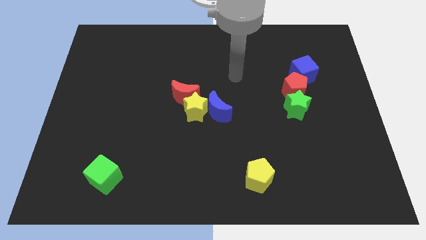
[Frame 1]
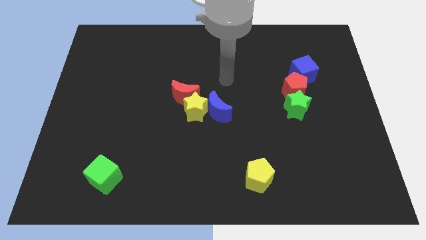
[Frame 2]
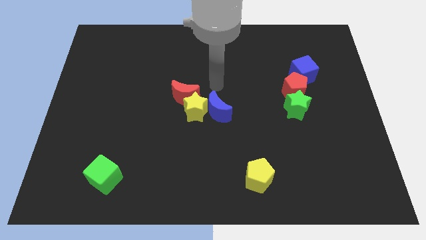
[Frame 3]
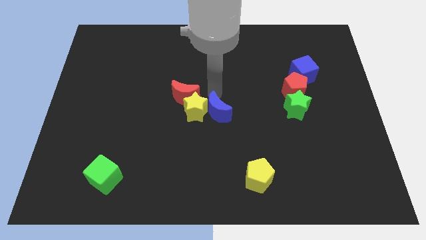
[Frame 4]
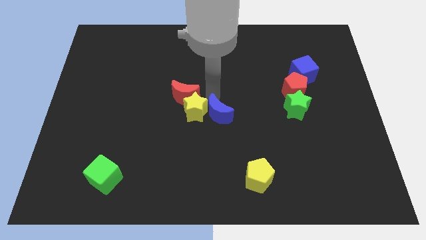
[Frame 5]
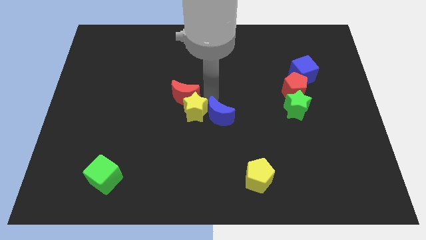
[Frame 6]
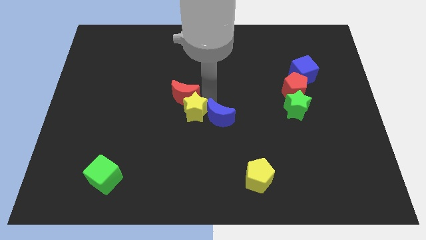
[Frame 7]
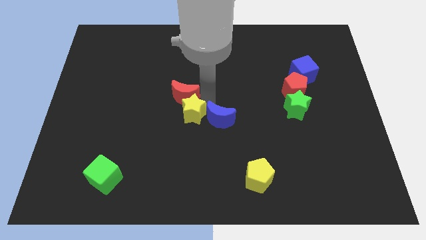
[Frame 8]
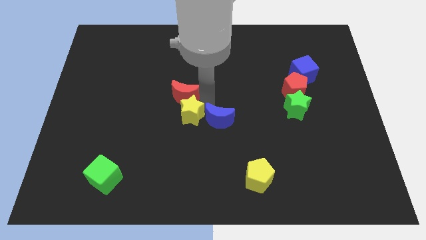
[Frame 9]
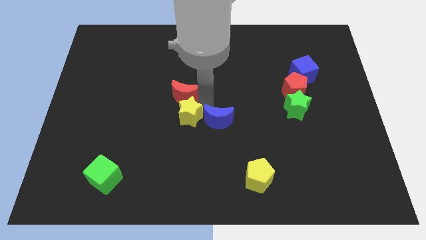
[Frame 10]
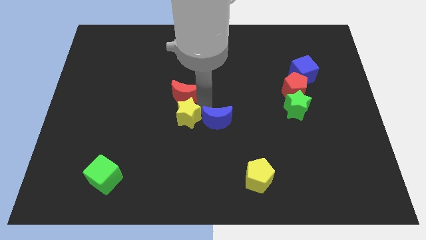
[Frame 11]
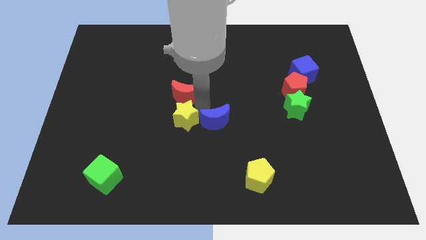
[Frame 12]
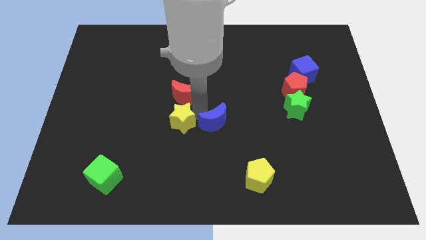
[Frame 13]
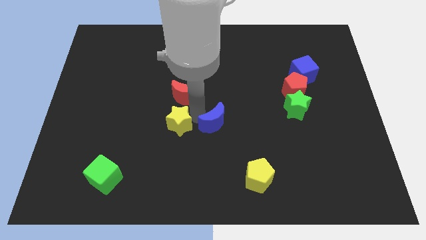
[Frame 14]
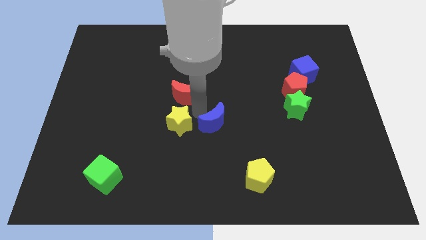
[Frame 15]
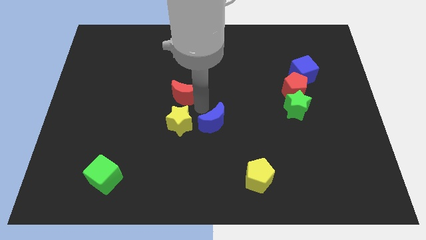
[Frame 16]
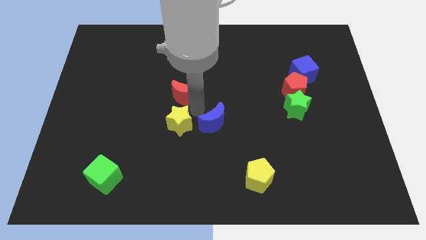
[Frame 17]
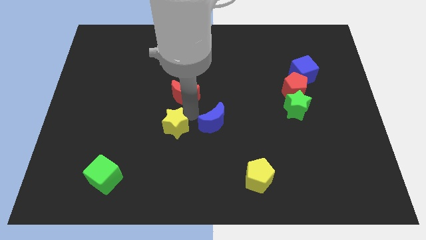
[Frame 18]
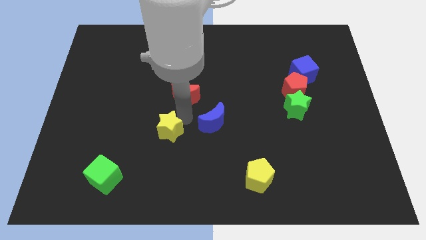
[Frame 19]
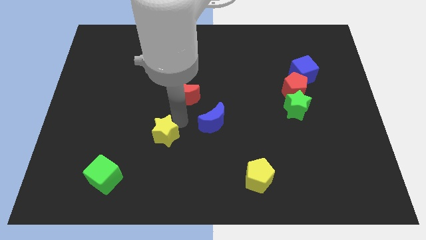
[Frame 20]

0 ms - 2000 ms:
pull the yellow star apart from the red moon and blue moon

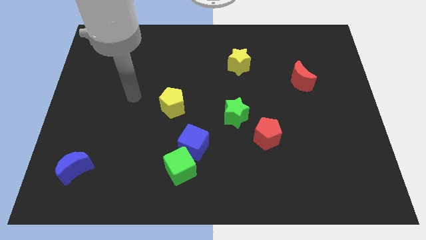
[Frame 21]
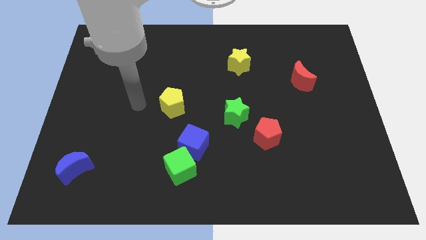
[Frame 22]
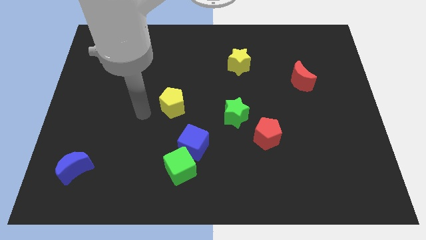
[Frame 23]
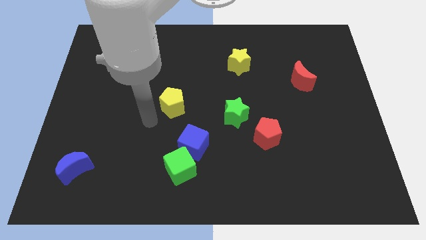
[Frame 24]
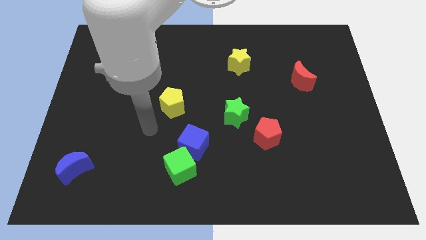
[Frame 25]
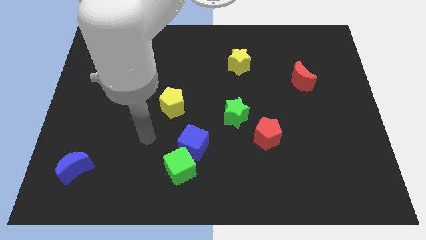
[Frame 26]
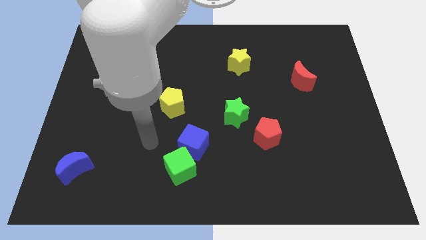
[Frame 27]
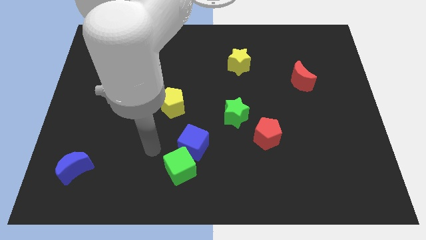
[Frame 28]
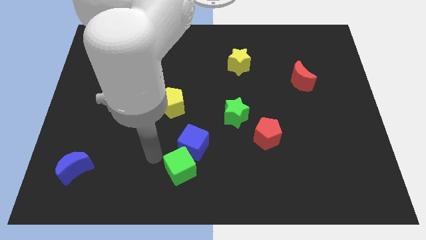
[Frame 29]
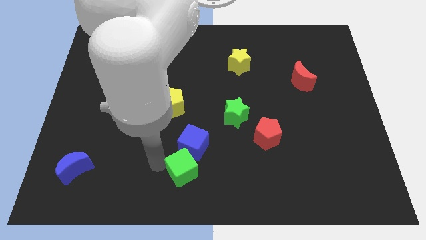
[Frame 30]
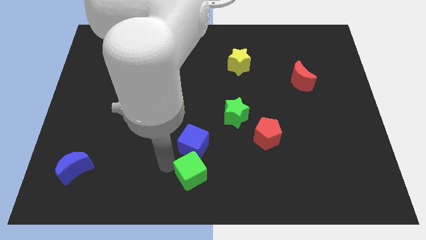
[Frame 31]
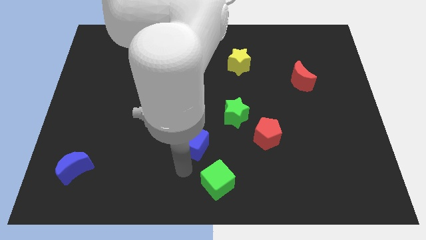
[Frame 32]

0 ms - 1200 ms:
pull the blue cube apart from the green cube

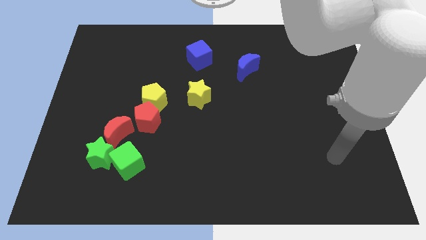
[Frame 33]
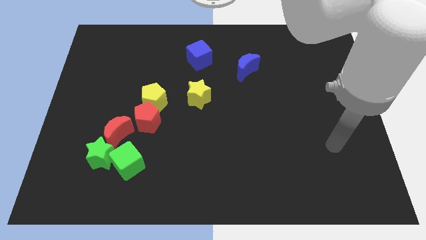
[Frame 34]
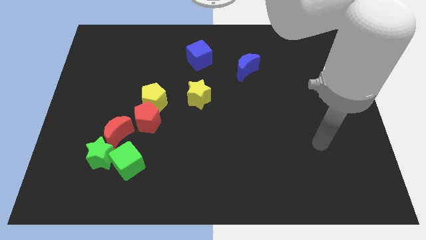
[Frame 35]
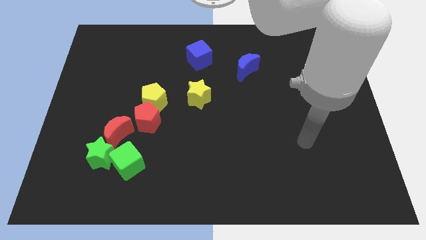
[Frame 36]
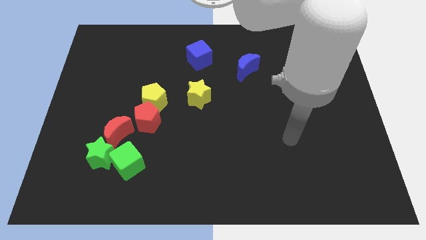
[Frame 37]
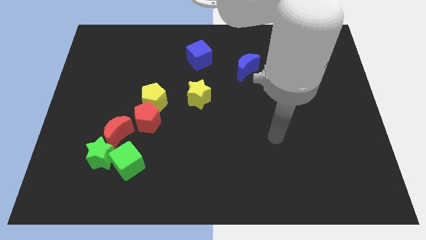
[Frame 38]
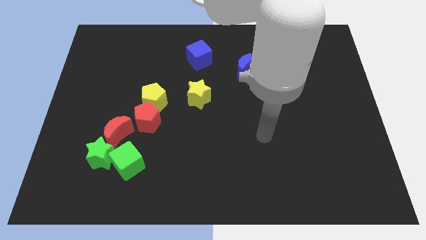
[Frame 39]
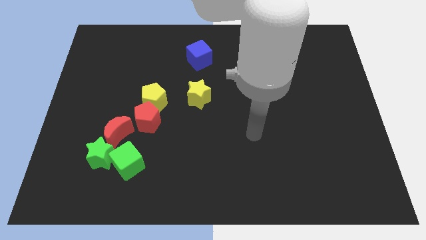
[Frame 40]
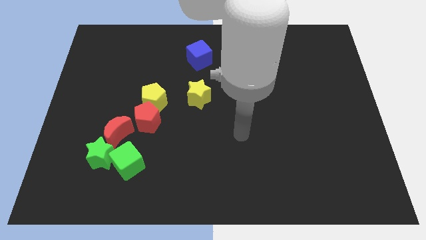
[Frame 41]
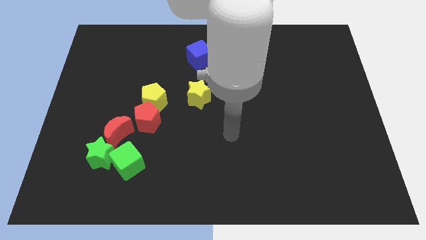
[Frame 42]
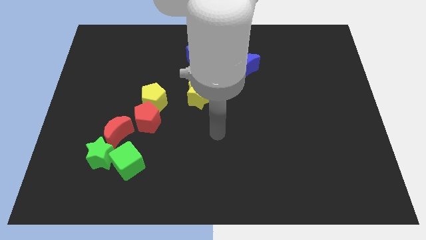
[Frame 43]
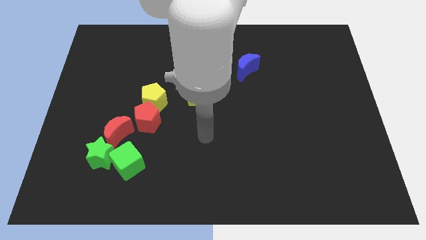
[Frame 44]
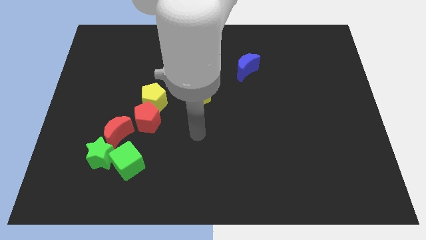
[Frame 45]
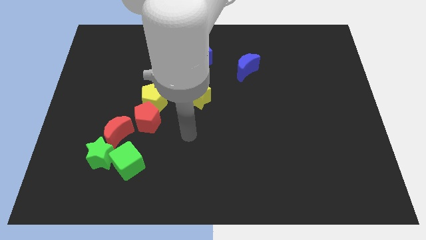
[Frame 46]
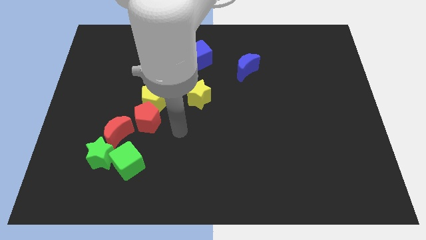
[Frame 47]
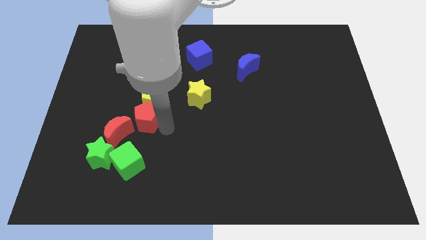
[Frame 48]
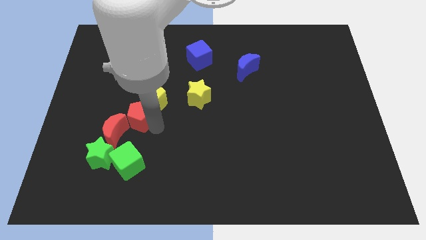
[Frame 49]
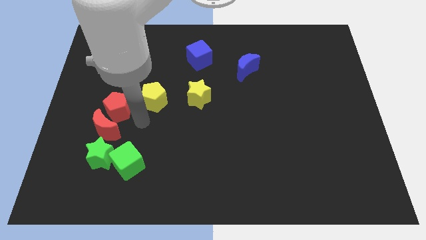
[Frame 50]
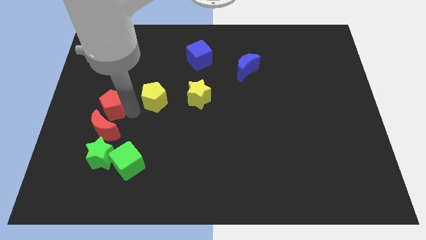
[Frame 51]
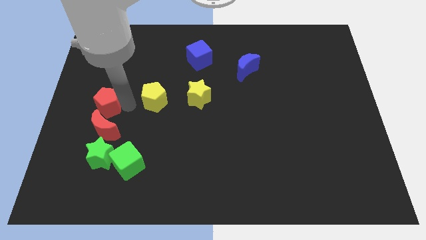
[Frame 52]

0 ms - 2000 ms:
pull the yellow pentagon apart from the red pentagon

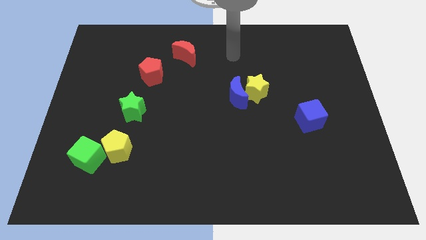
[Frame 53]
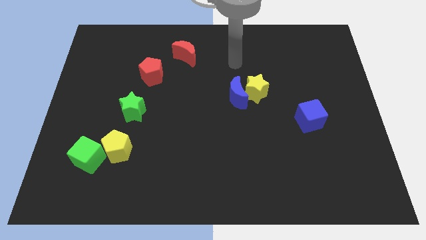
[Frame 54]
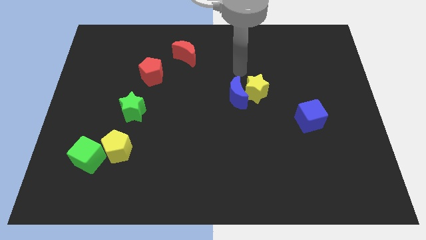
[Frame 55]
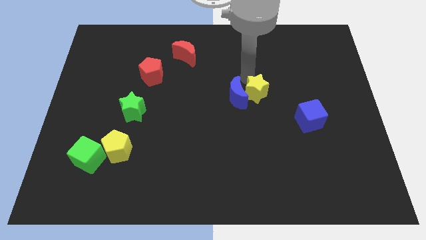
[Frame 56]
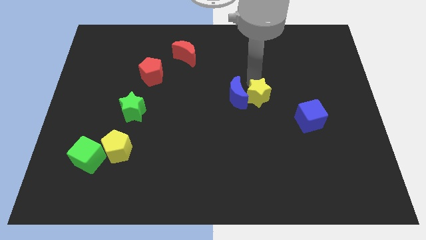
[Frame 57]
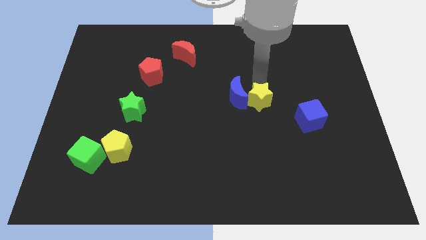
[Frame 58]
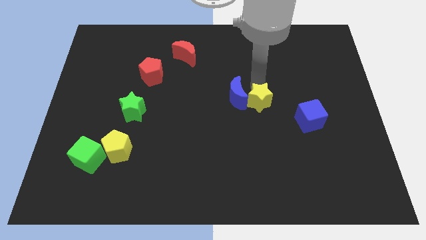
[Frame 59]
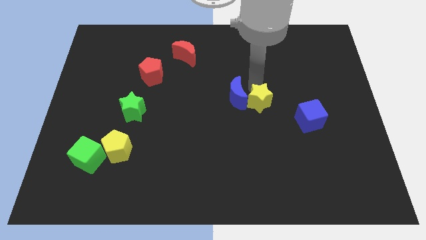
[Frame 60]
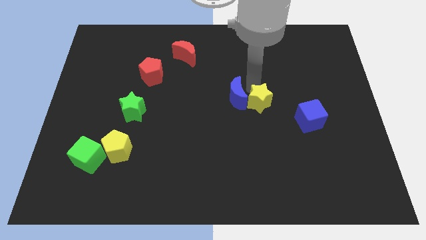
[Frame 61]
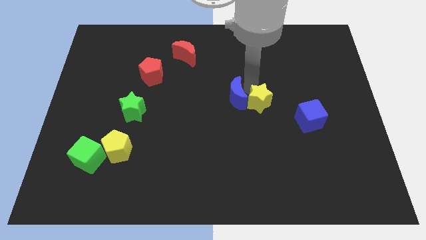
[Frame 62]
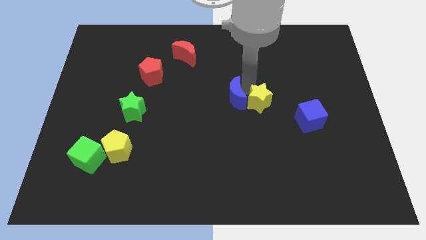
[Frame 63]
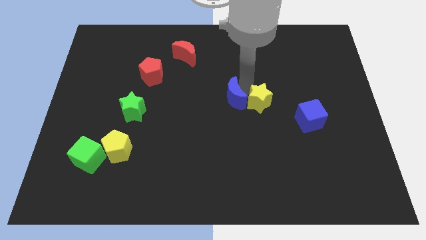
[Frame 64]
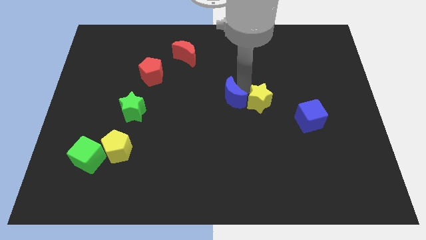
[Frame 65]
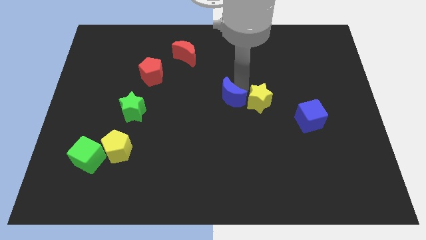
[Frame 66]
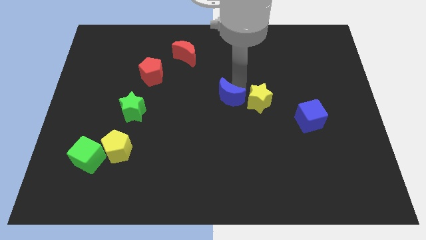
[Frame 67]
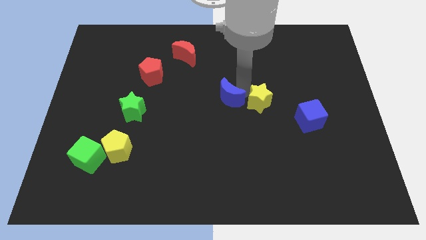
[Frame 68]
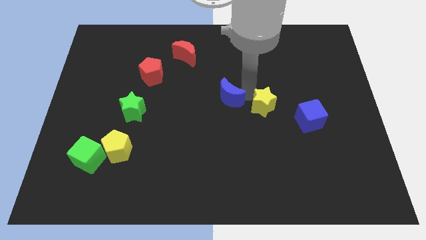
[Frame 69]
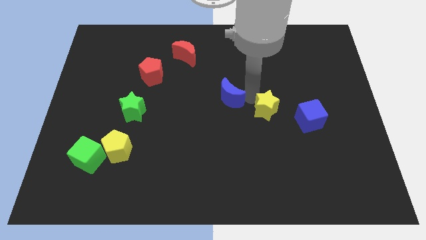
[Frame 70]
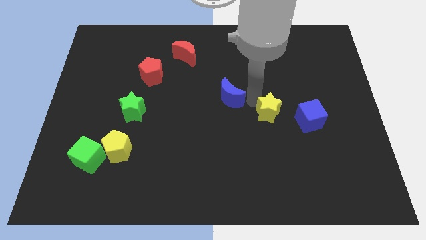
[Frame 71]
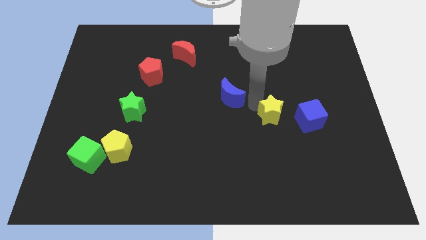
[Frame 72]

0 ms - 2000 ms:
pull the blue moon apart from the yellow star

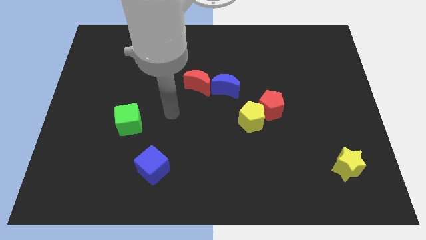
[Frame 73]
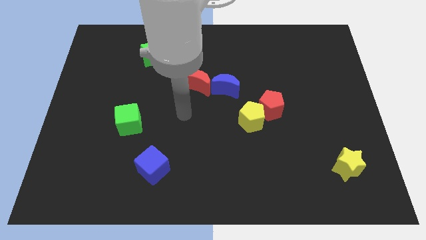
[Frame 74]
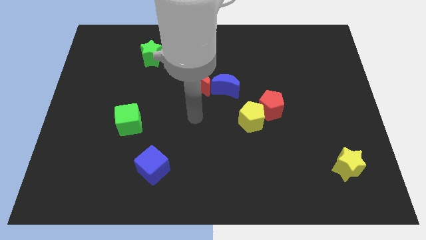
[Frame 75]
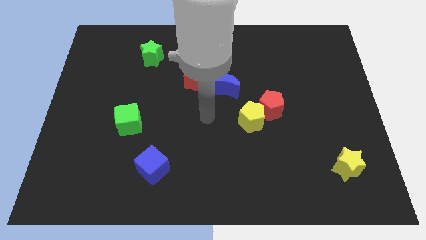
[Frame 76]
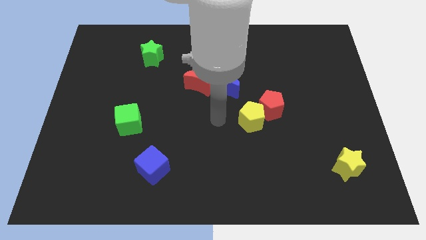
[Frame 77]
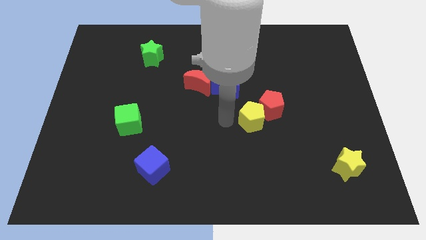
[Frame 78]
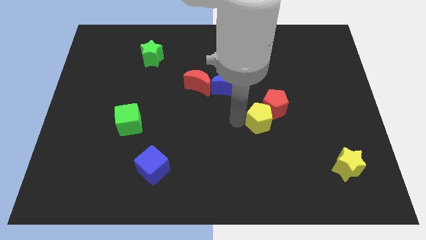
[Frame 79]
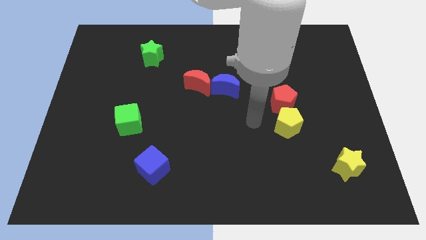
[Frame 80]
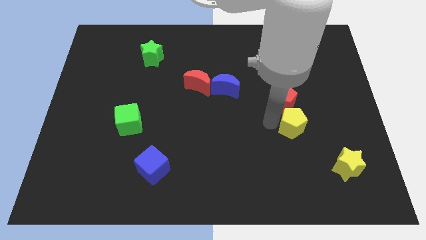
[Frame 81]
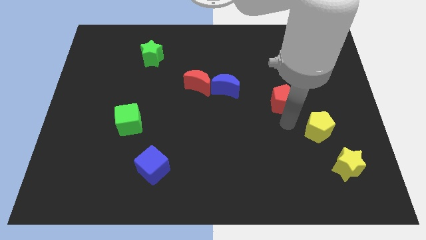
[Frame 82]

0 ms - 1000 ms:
move the red pentagon away from the yellow pentagon

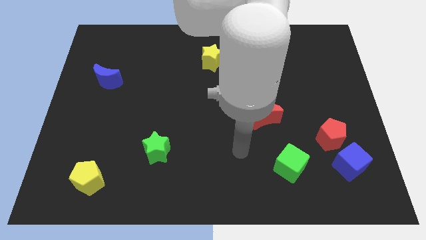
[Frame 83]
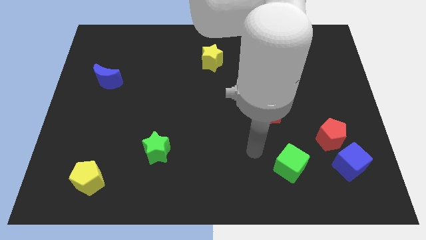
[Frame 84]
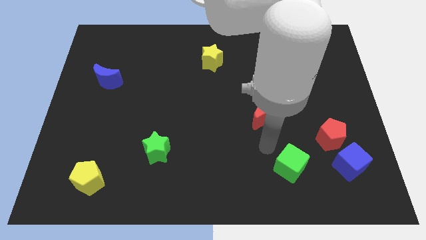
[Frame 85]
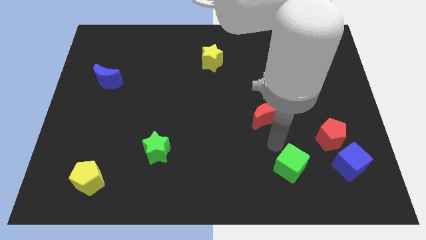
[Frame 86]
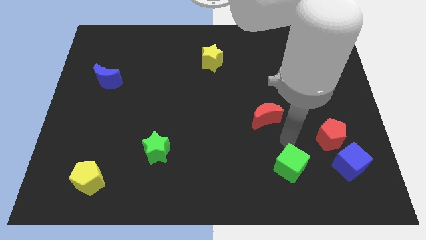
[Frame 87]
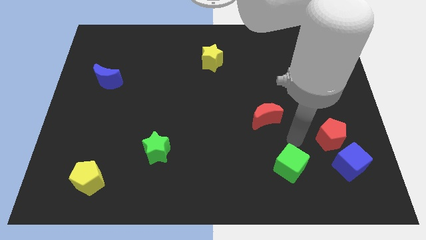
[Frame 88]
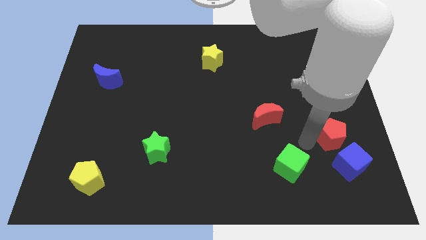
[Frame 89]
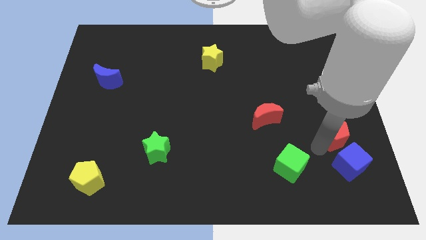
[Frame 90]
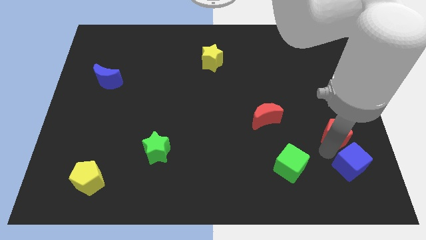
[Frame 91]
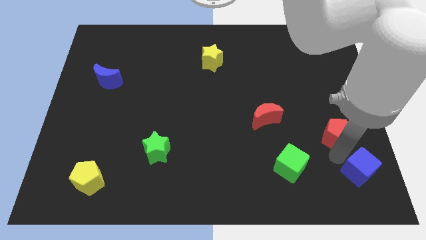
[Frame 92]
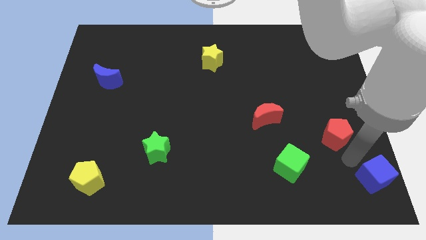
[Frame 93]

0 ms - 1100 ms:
move the red pentagon away from the blue cube

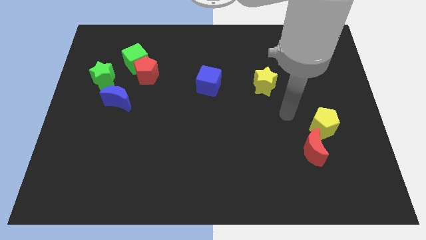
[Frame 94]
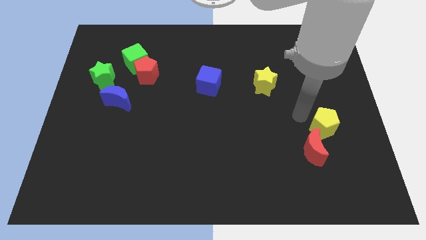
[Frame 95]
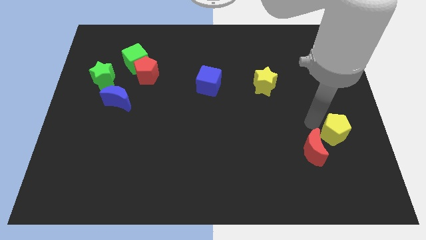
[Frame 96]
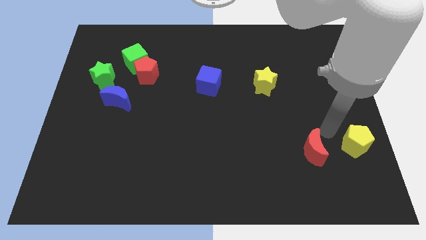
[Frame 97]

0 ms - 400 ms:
pull the red moon apart from the yellow pentagon
